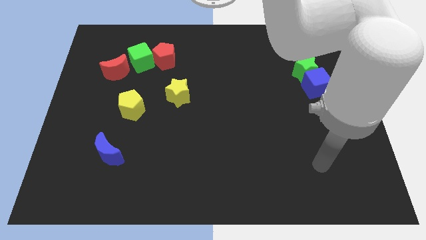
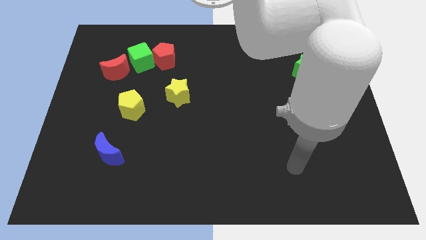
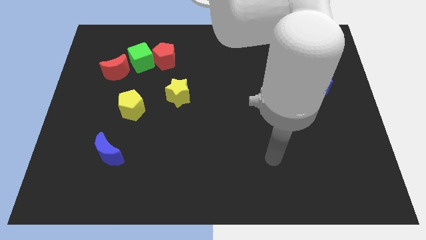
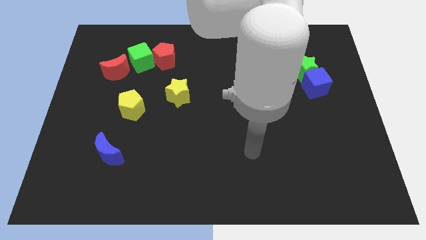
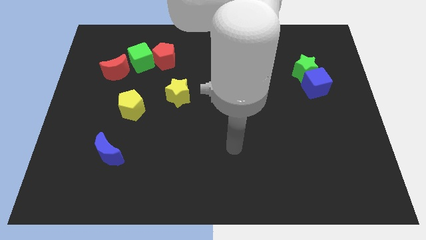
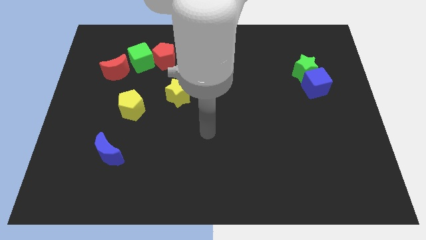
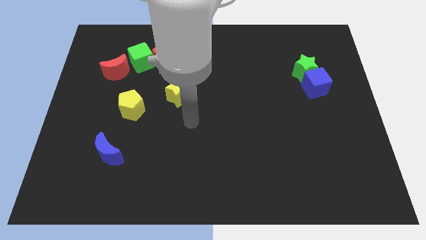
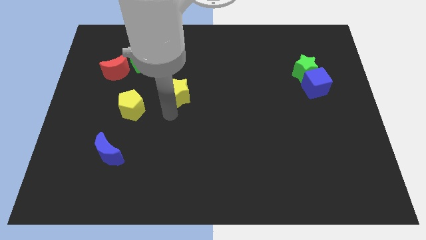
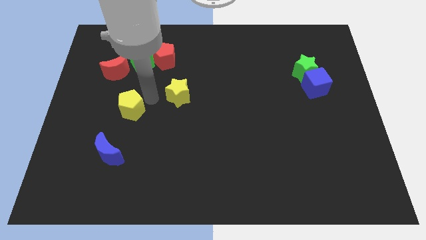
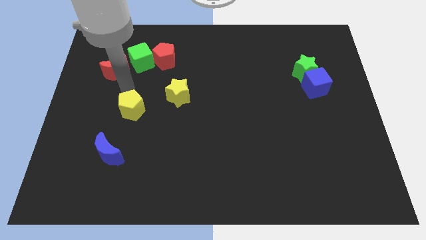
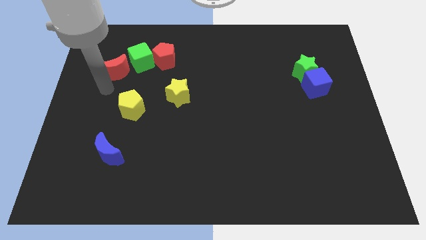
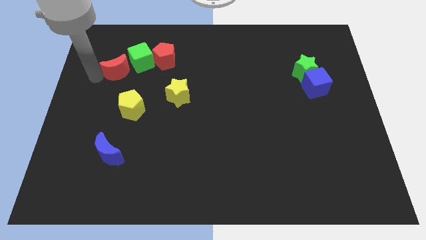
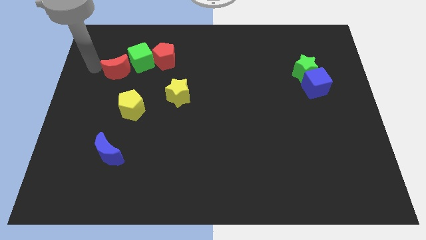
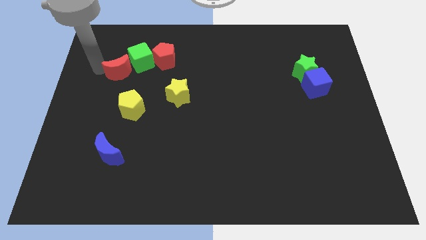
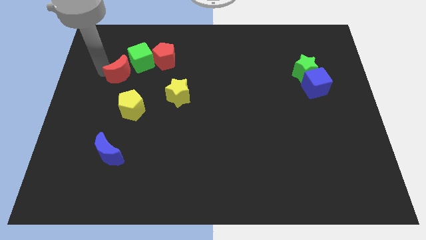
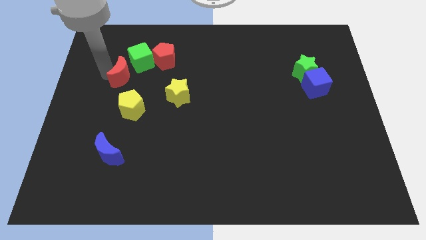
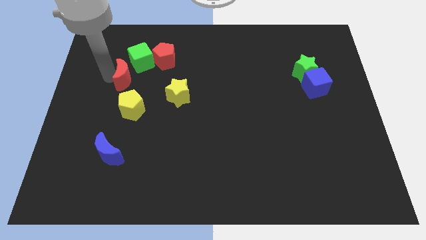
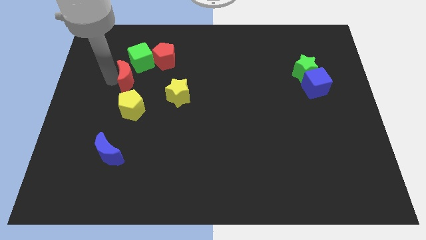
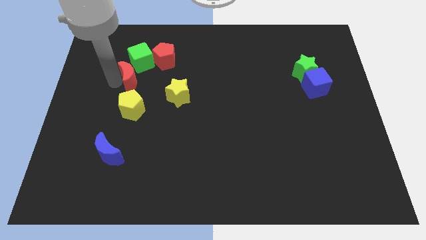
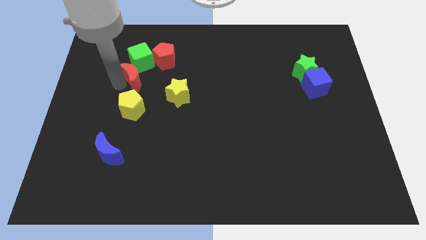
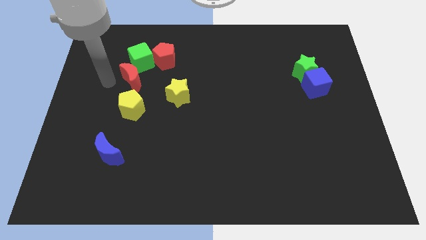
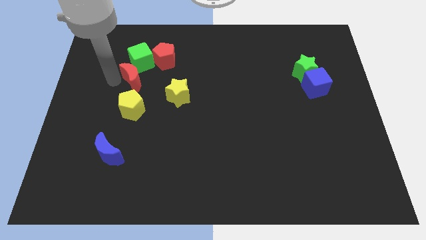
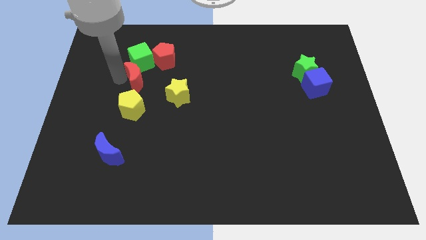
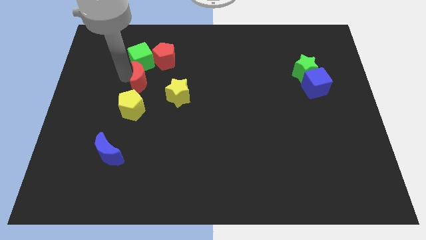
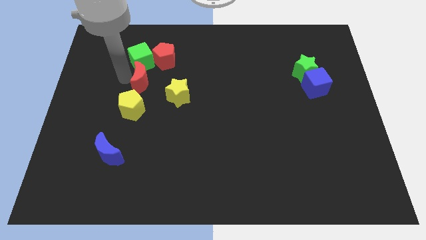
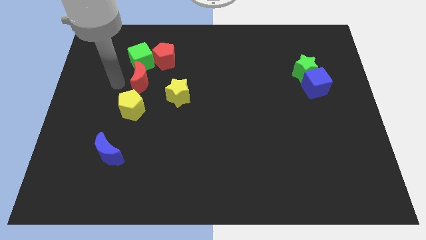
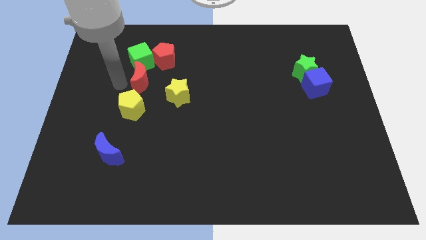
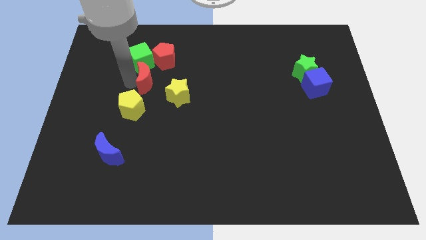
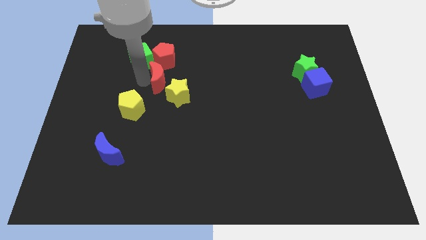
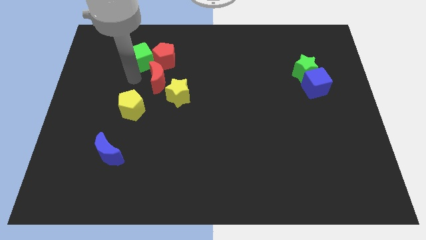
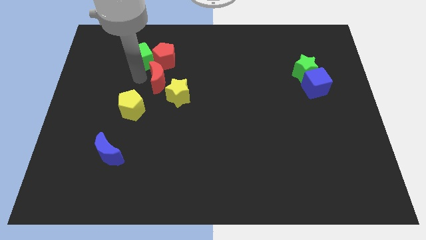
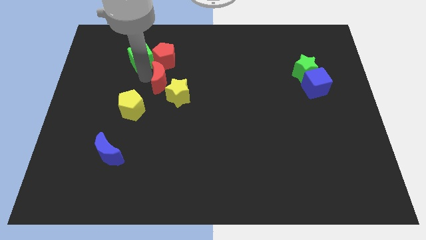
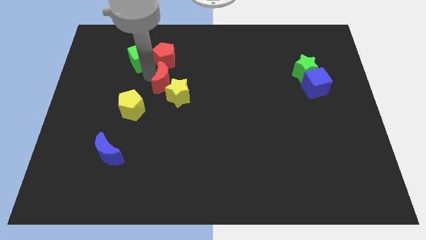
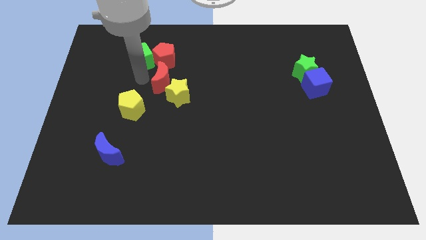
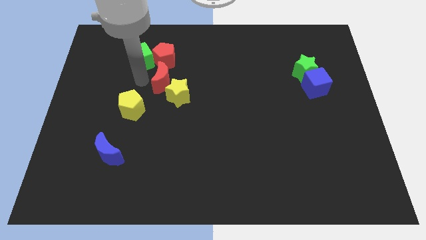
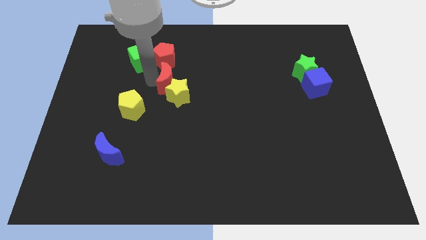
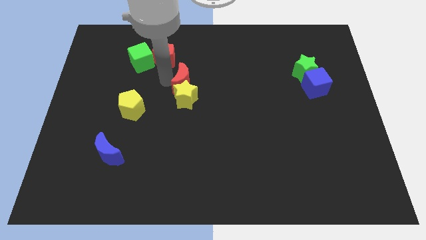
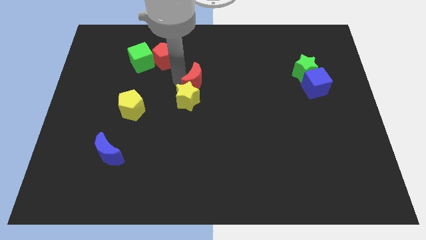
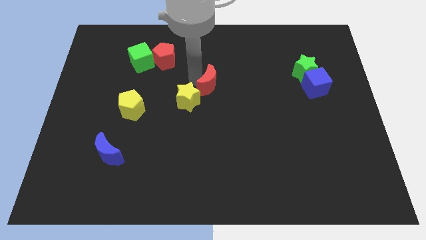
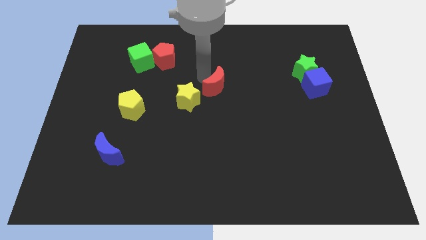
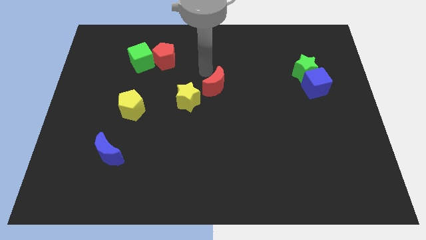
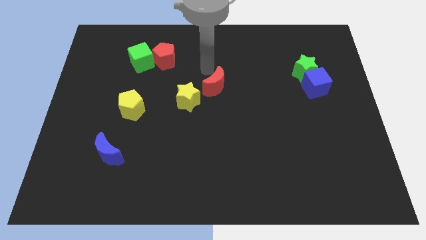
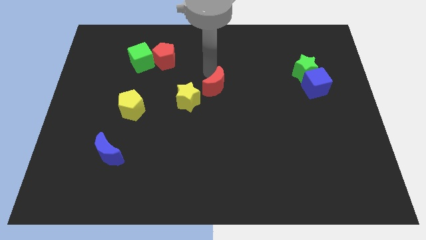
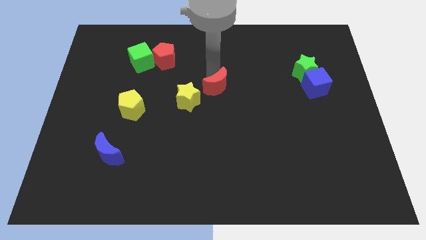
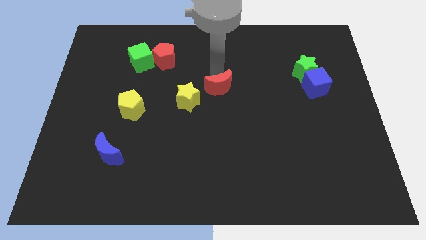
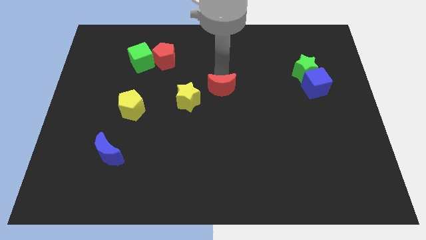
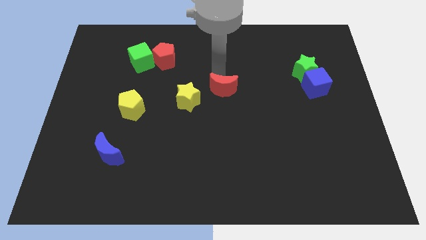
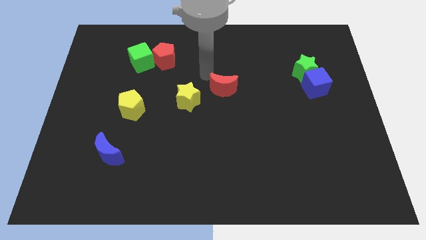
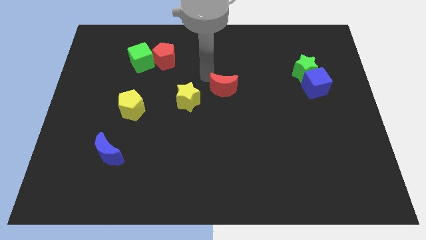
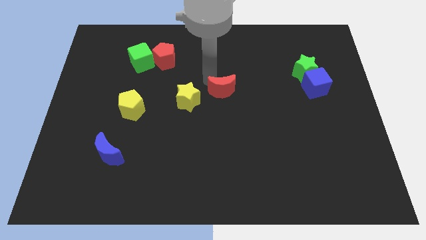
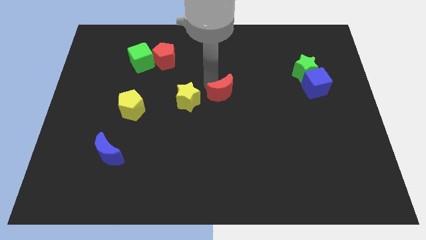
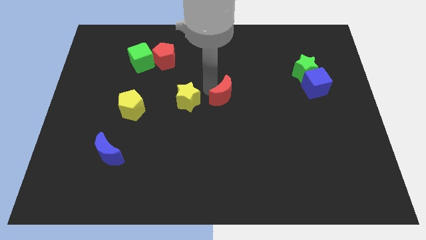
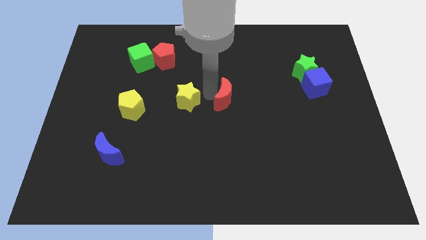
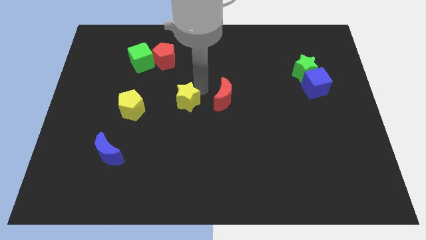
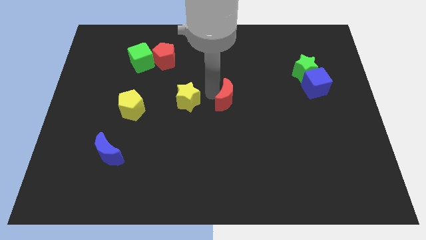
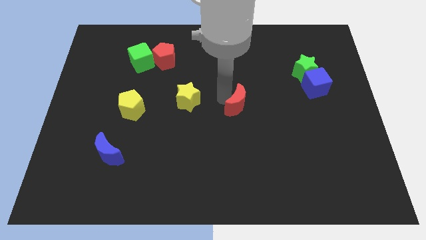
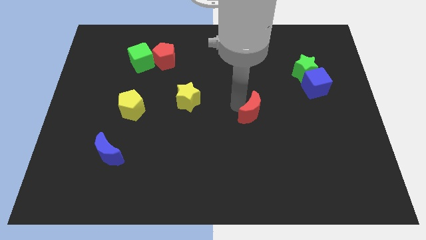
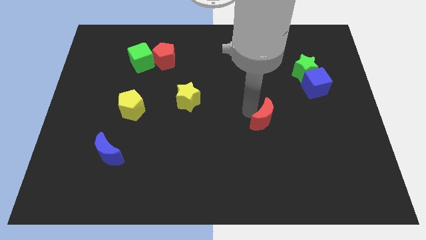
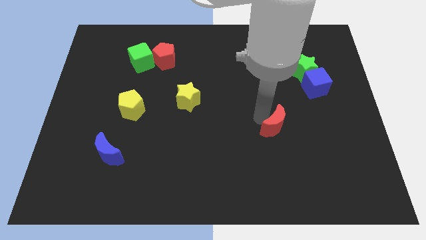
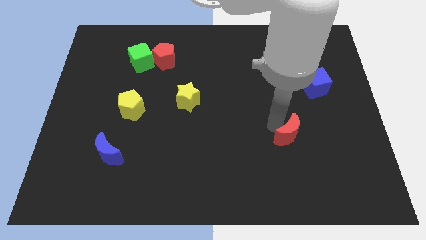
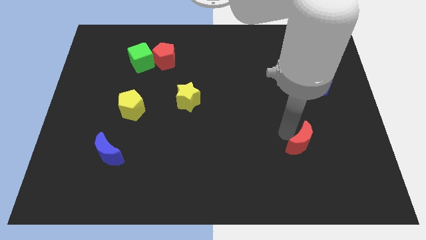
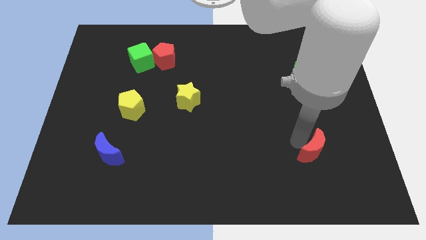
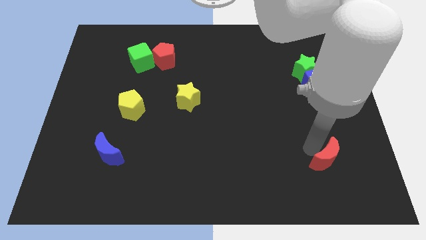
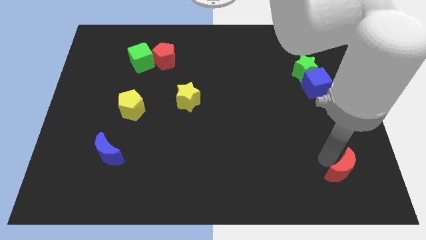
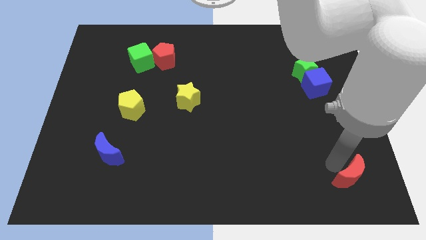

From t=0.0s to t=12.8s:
slide the red moon to the bottom right of the board

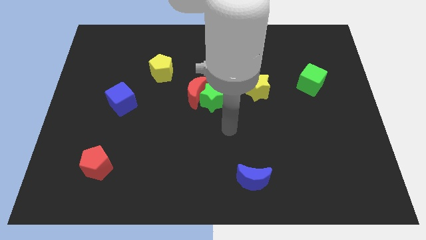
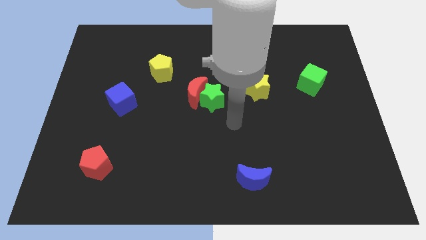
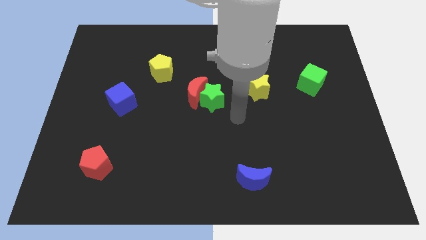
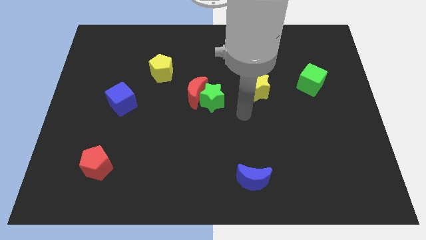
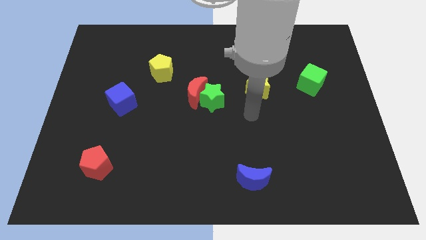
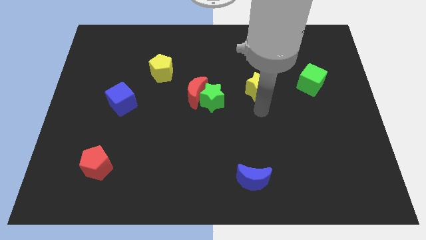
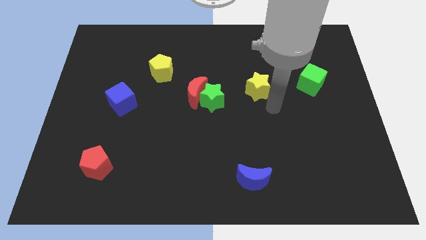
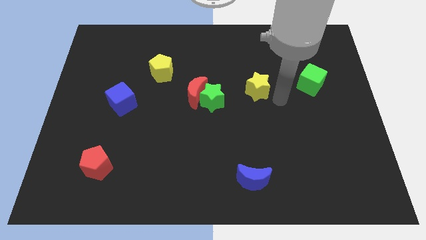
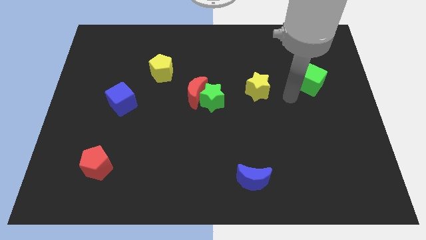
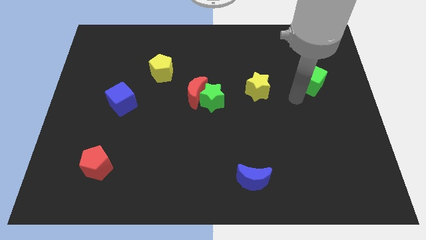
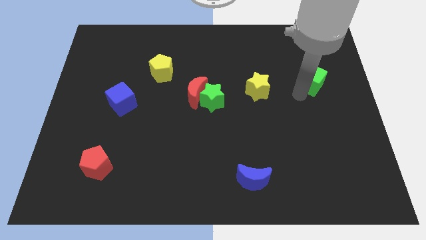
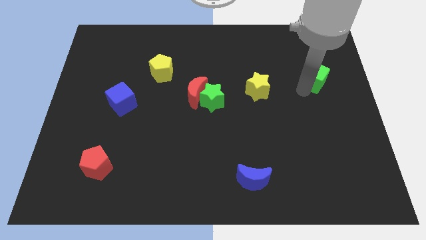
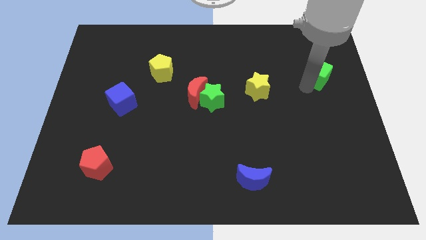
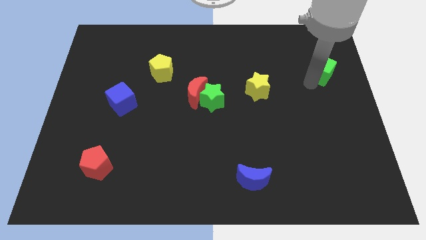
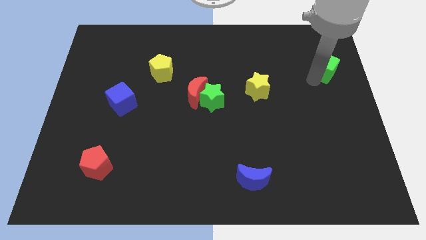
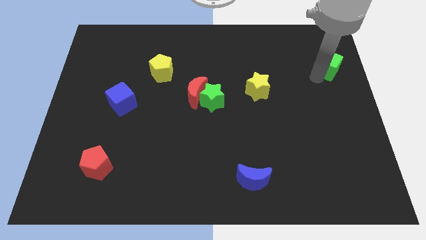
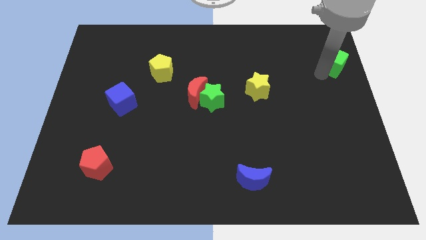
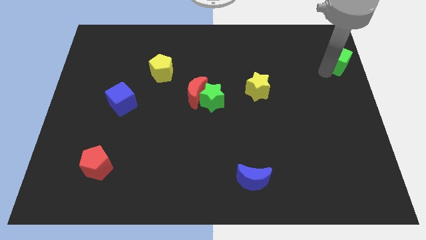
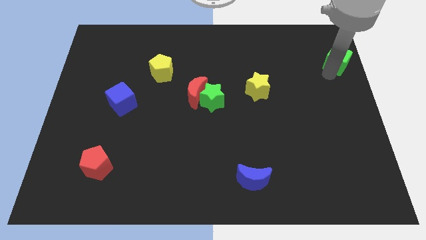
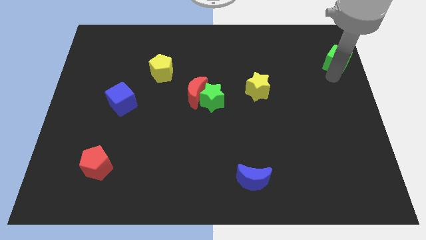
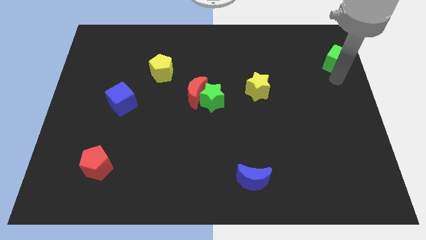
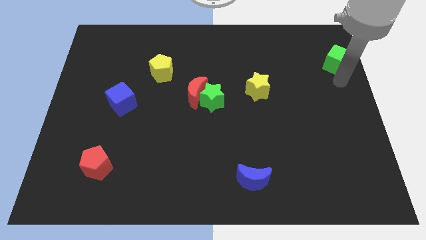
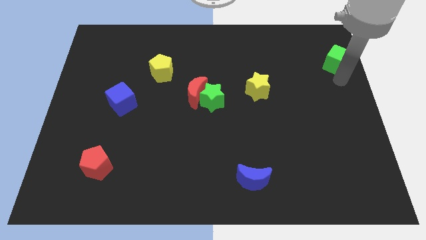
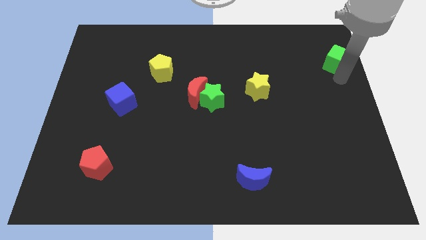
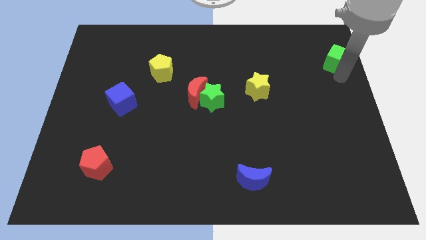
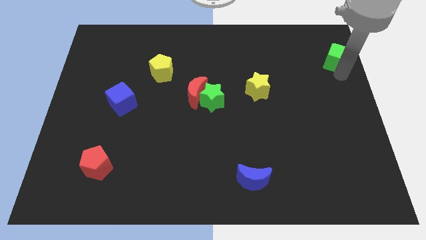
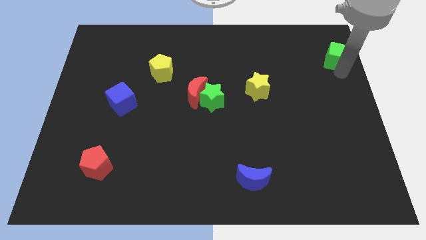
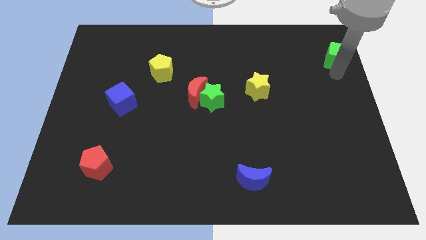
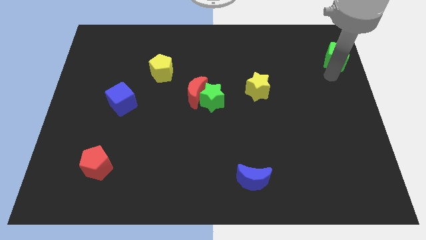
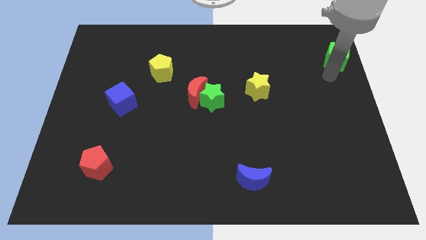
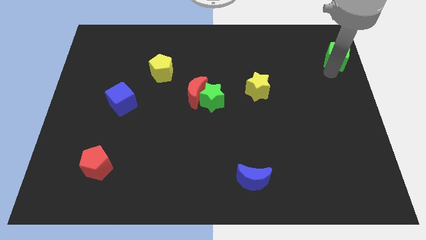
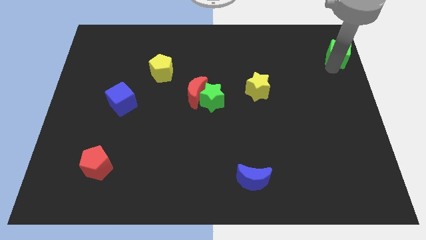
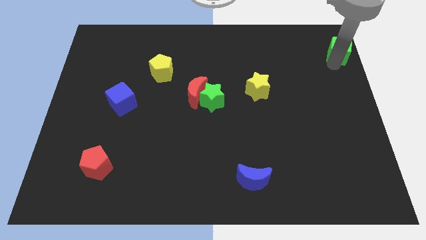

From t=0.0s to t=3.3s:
move the green cube to the top right
